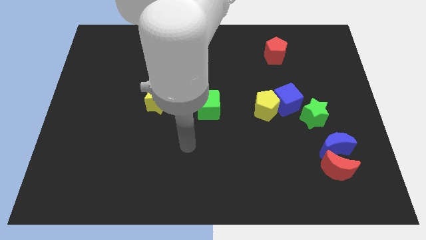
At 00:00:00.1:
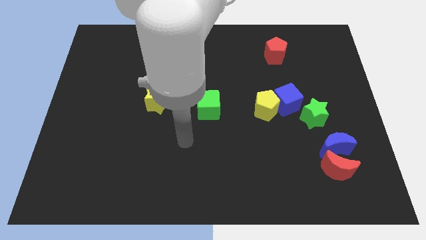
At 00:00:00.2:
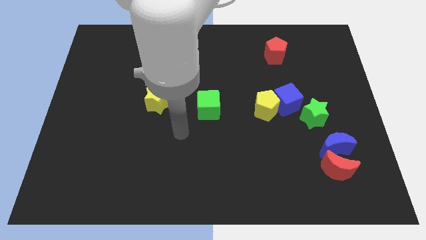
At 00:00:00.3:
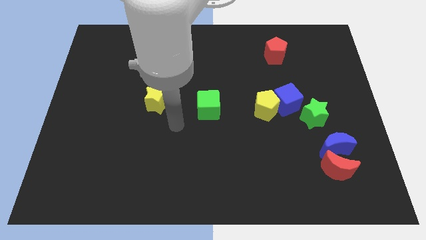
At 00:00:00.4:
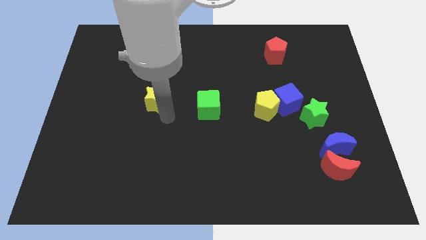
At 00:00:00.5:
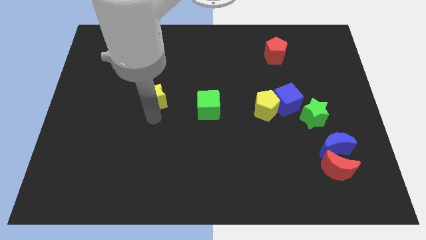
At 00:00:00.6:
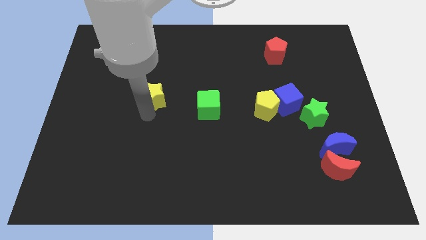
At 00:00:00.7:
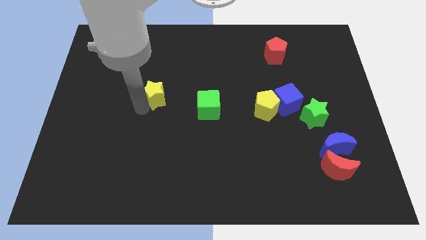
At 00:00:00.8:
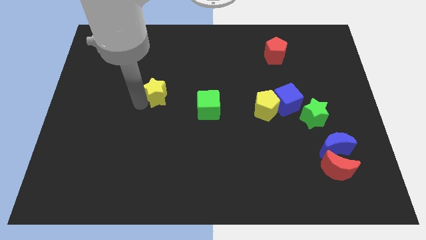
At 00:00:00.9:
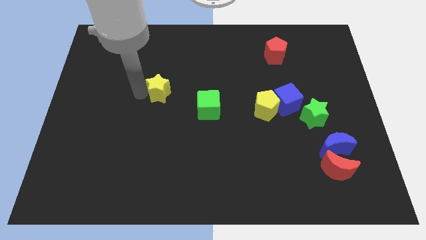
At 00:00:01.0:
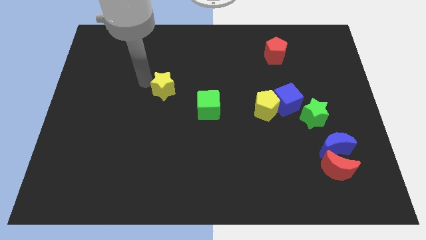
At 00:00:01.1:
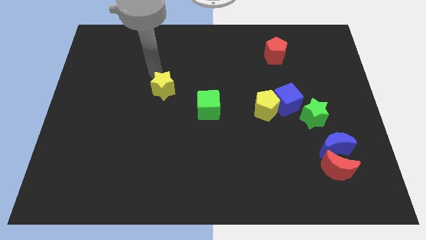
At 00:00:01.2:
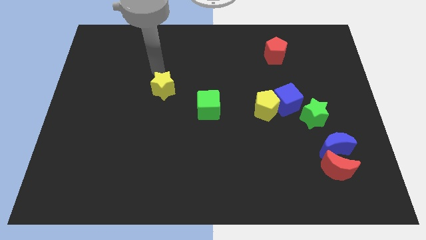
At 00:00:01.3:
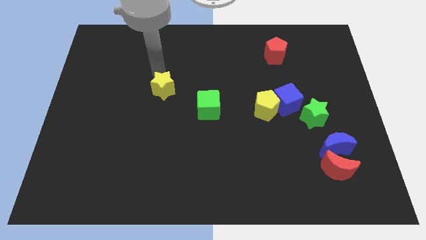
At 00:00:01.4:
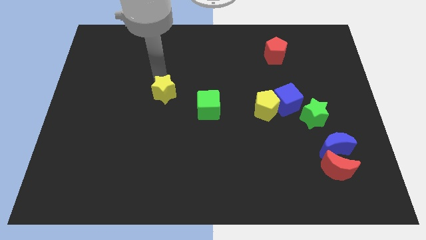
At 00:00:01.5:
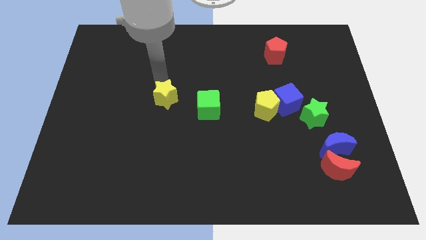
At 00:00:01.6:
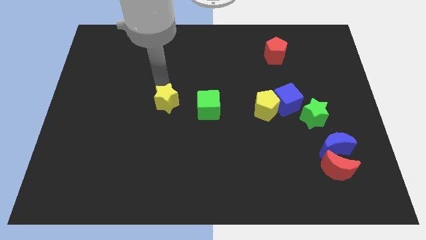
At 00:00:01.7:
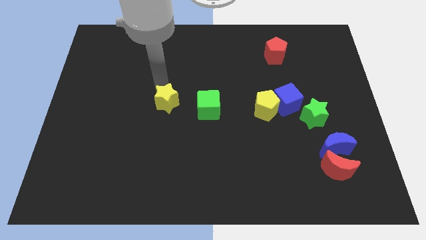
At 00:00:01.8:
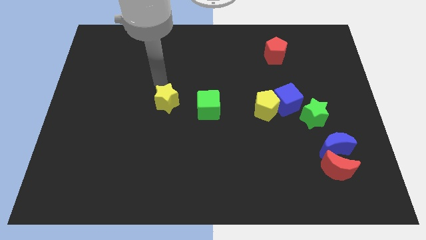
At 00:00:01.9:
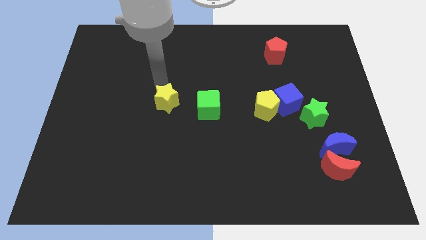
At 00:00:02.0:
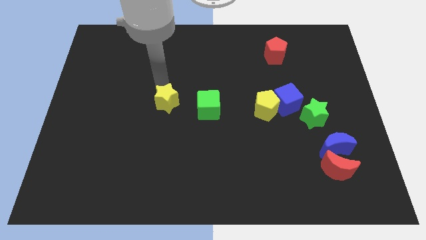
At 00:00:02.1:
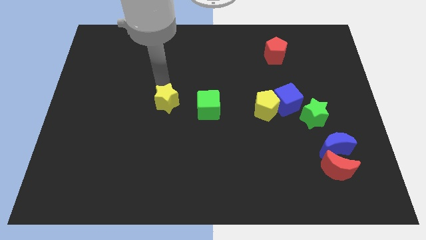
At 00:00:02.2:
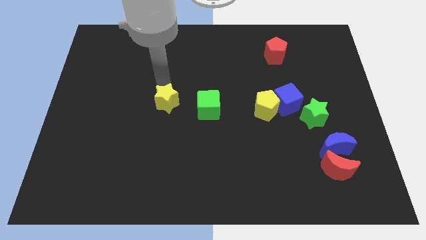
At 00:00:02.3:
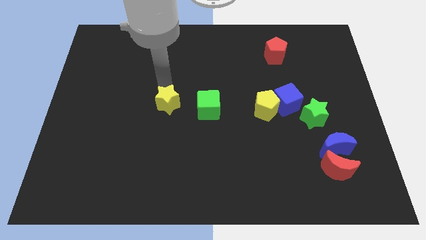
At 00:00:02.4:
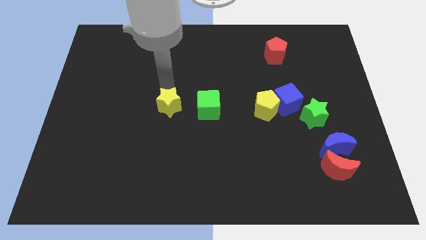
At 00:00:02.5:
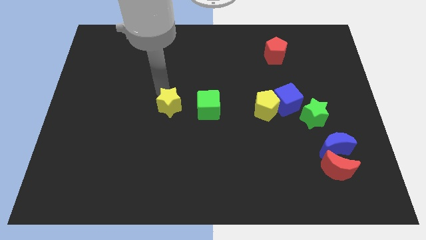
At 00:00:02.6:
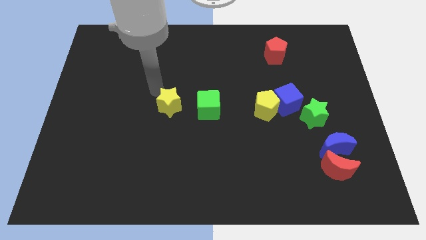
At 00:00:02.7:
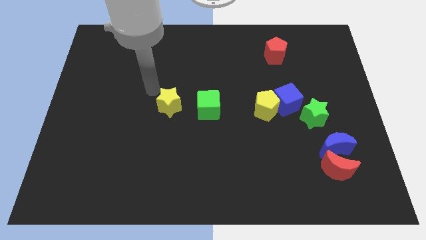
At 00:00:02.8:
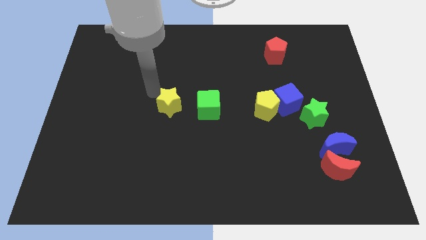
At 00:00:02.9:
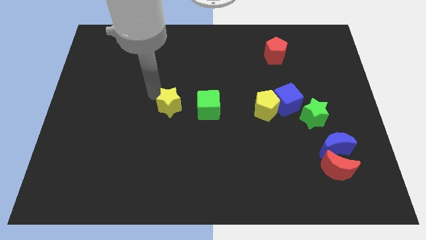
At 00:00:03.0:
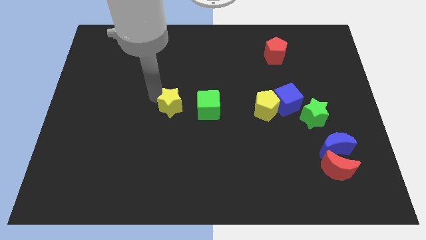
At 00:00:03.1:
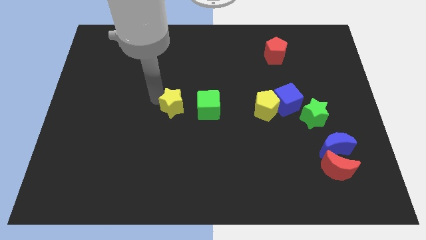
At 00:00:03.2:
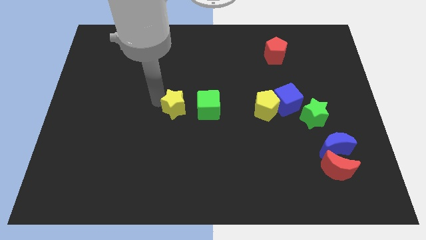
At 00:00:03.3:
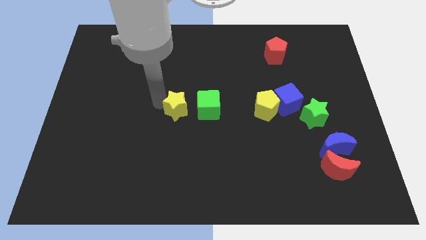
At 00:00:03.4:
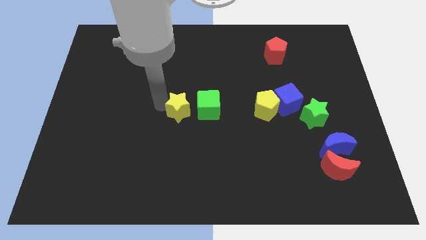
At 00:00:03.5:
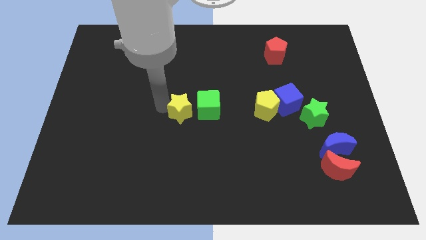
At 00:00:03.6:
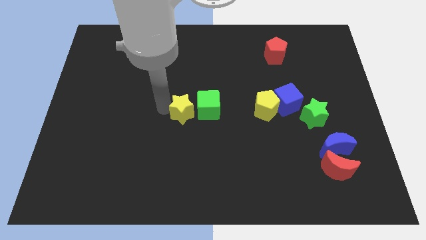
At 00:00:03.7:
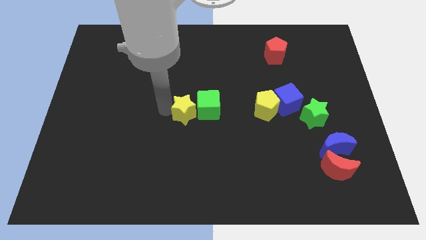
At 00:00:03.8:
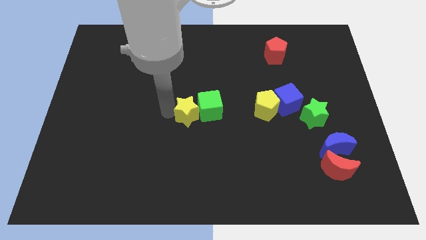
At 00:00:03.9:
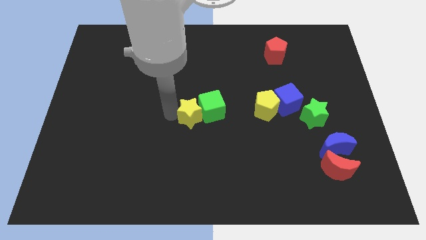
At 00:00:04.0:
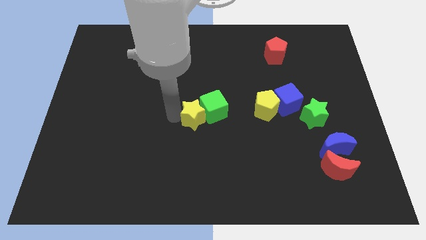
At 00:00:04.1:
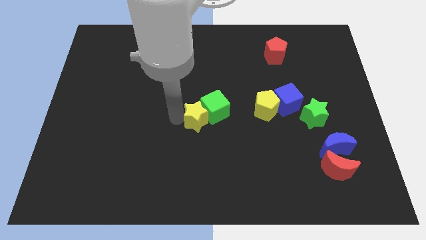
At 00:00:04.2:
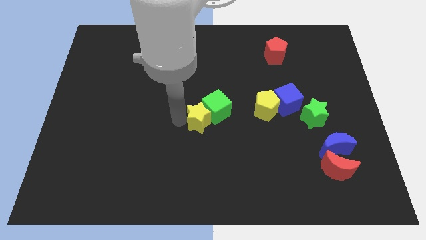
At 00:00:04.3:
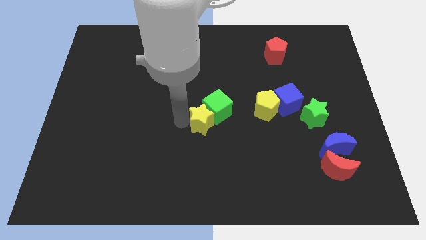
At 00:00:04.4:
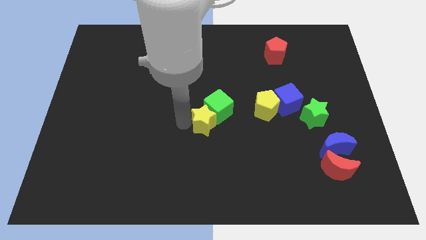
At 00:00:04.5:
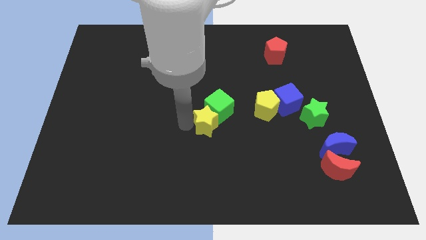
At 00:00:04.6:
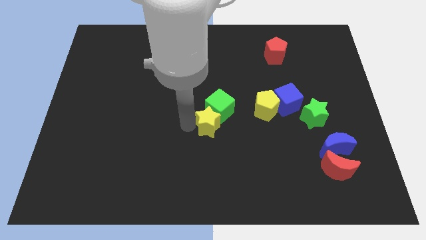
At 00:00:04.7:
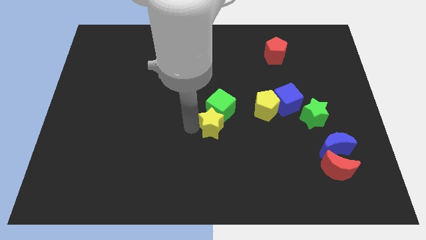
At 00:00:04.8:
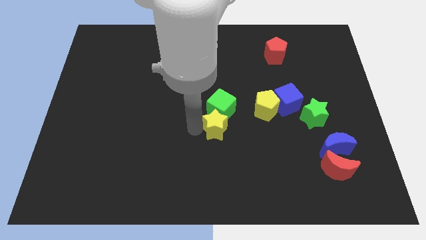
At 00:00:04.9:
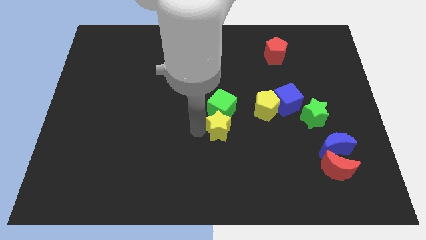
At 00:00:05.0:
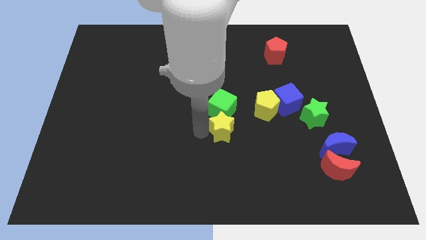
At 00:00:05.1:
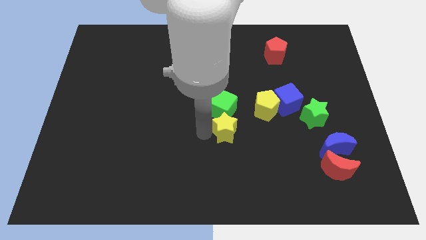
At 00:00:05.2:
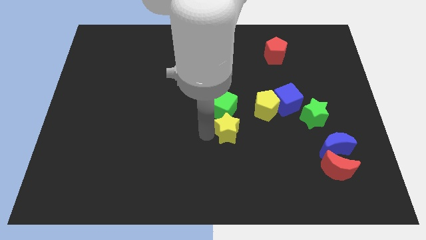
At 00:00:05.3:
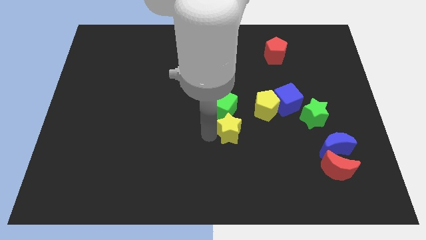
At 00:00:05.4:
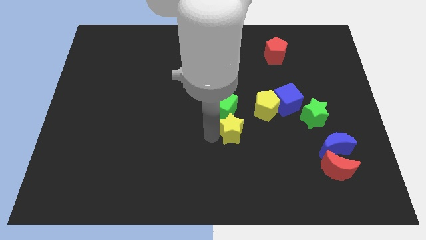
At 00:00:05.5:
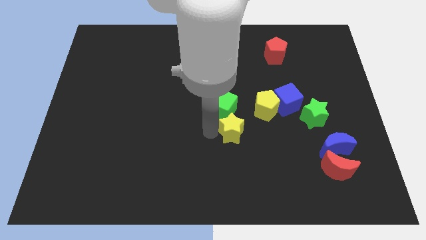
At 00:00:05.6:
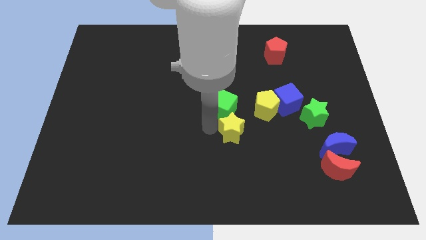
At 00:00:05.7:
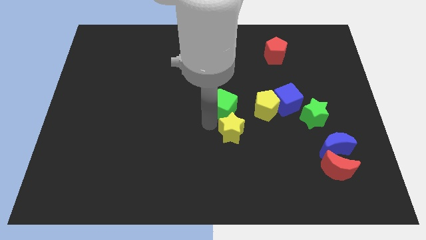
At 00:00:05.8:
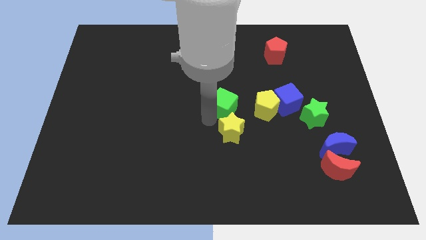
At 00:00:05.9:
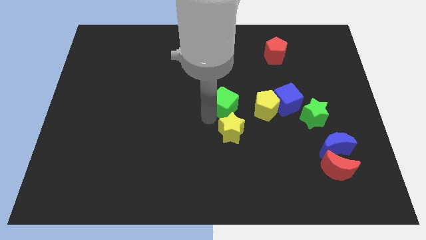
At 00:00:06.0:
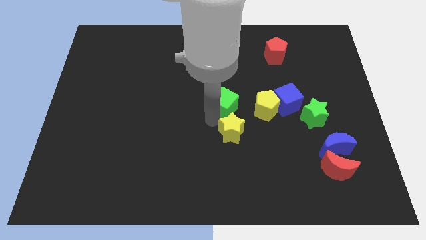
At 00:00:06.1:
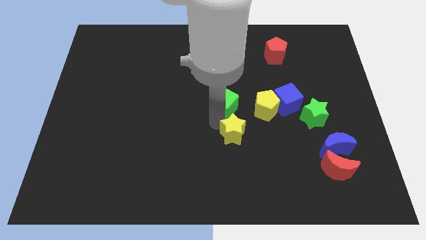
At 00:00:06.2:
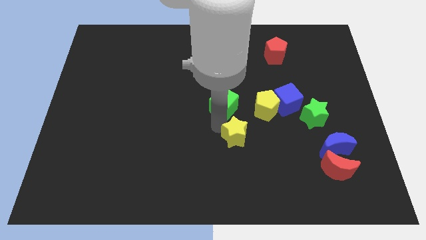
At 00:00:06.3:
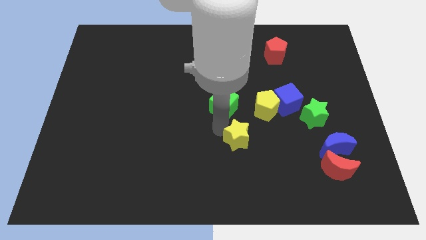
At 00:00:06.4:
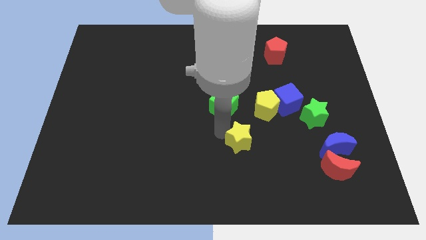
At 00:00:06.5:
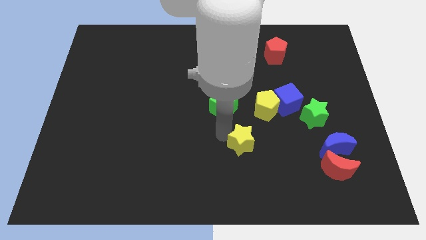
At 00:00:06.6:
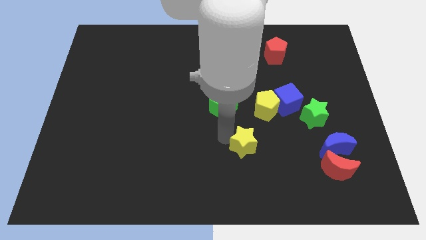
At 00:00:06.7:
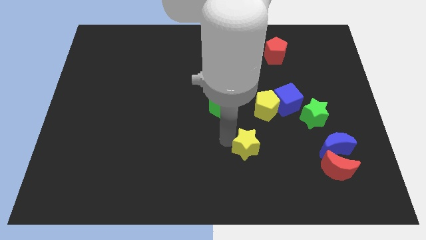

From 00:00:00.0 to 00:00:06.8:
slide the yellow star below the yellow pentagon

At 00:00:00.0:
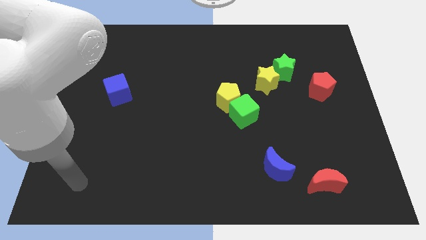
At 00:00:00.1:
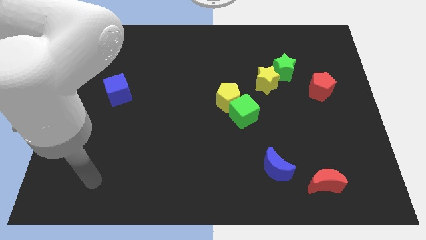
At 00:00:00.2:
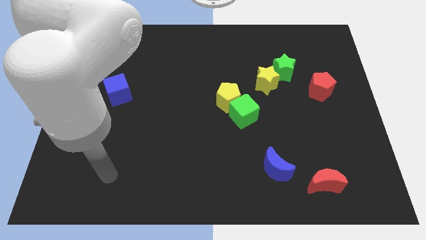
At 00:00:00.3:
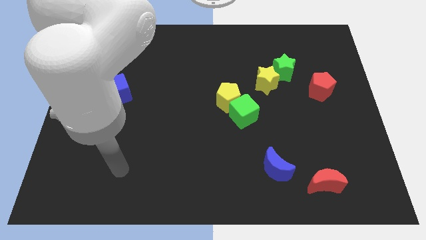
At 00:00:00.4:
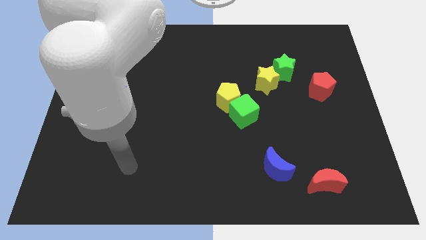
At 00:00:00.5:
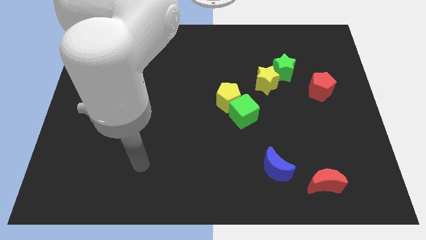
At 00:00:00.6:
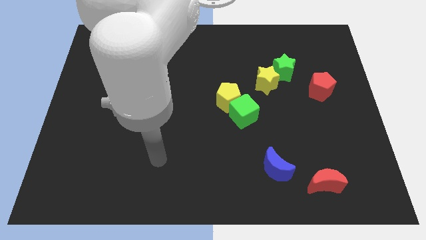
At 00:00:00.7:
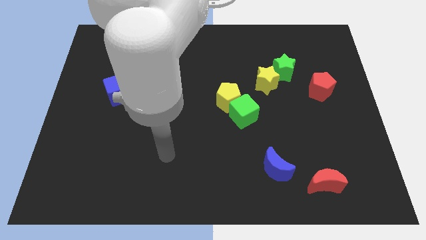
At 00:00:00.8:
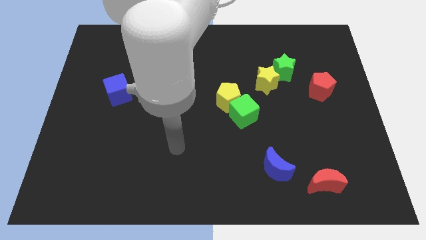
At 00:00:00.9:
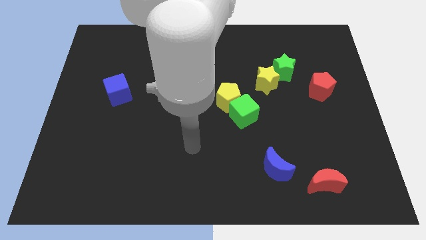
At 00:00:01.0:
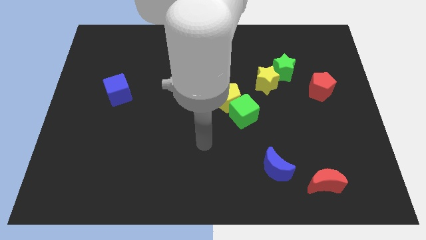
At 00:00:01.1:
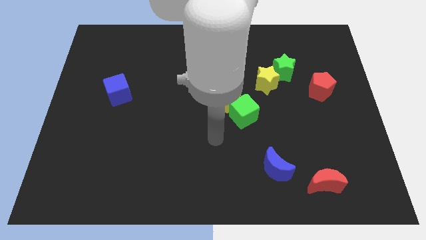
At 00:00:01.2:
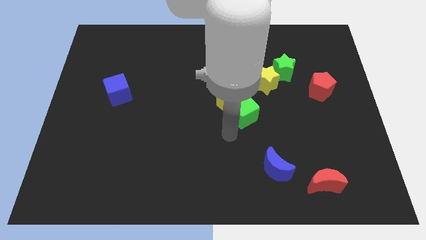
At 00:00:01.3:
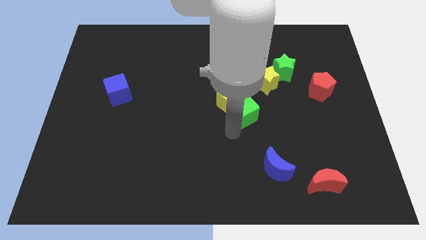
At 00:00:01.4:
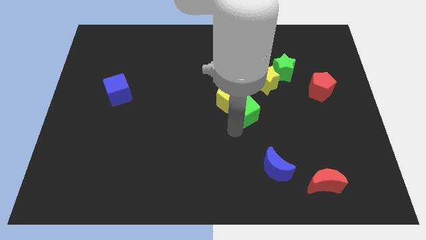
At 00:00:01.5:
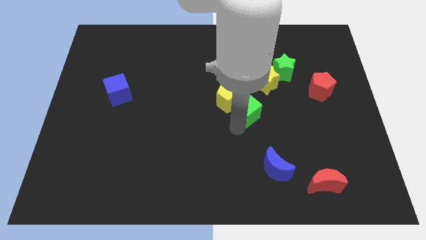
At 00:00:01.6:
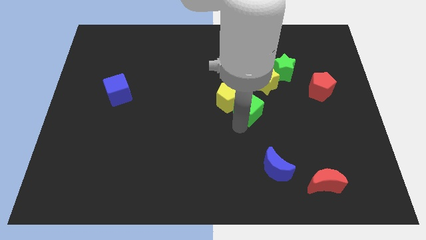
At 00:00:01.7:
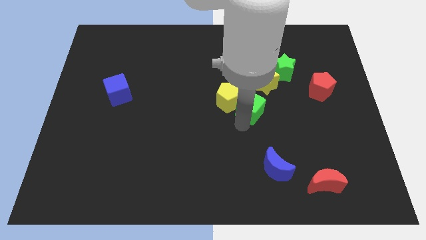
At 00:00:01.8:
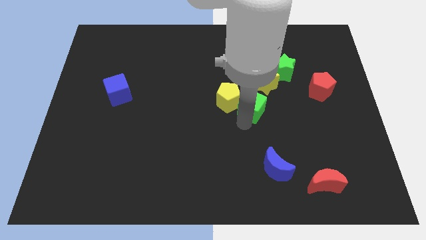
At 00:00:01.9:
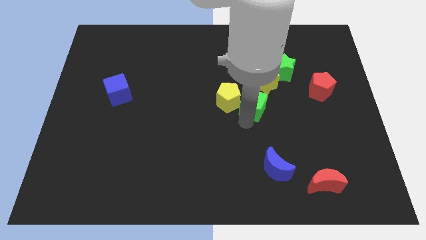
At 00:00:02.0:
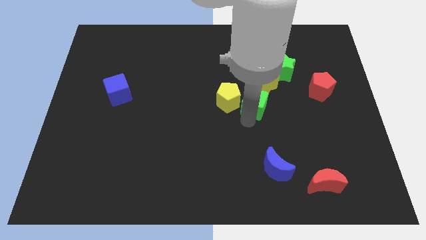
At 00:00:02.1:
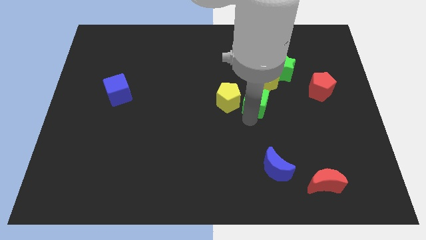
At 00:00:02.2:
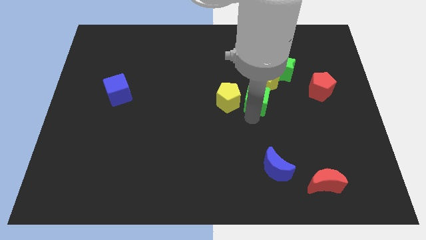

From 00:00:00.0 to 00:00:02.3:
push the green cube diagonally down and to the left of the green star
